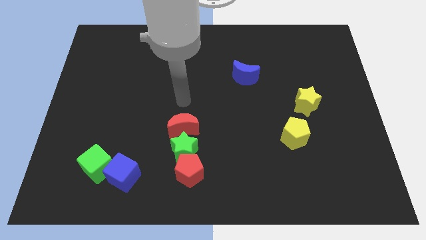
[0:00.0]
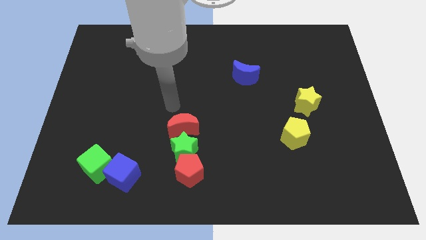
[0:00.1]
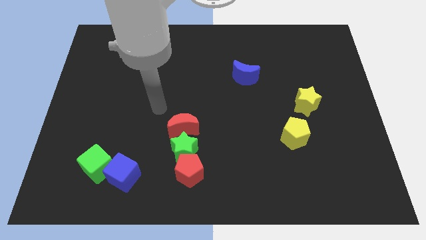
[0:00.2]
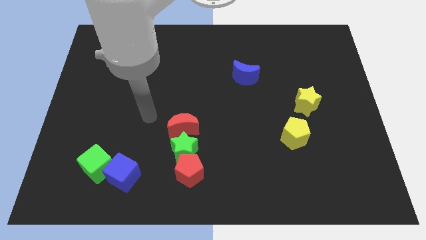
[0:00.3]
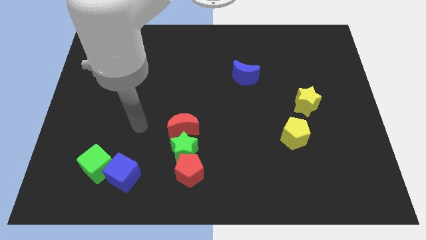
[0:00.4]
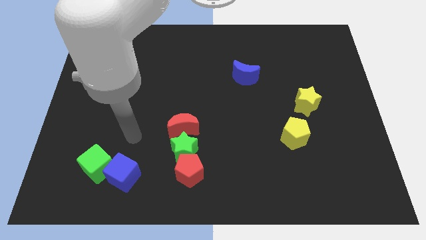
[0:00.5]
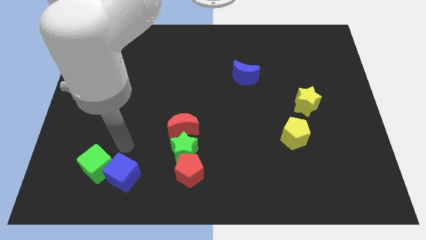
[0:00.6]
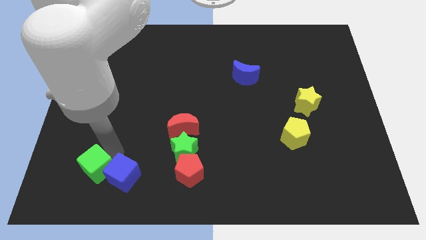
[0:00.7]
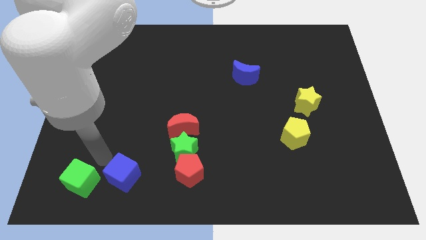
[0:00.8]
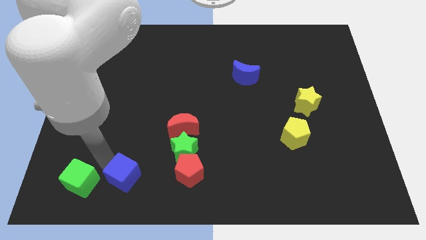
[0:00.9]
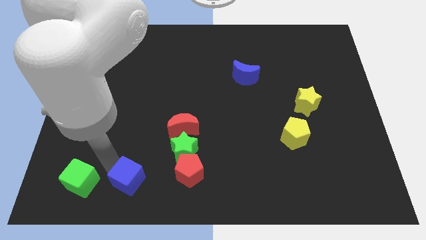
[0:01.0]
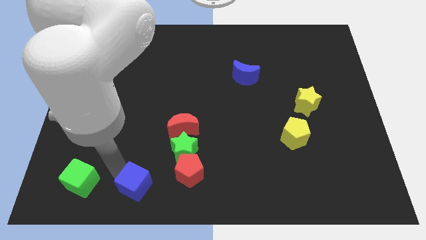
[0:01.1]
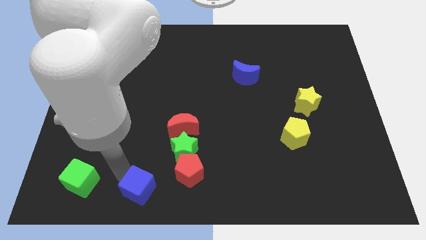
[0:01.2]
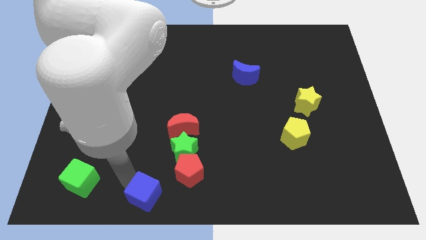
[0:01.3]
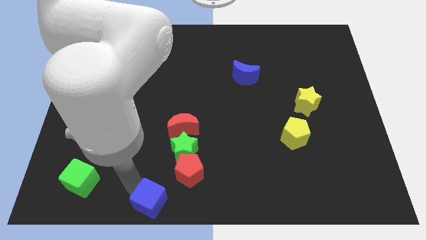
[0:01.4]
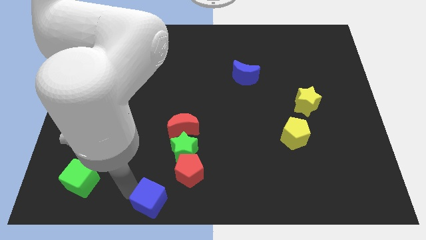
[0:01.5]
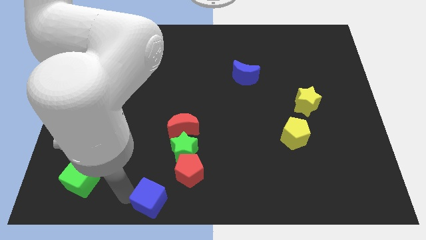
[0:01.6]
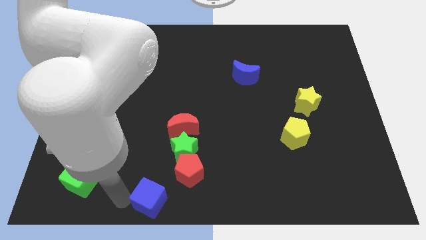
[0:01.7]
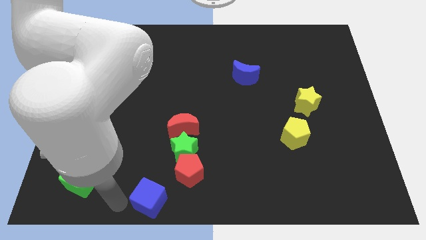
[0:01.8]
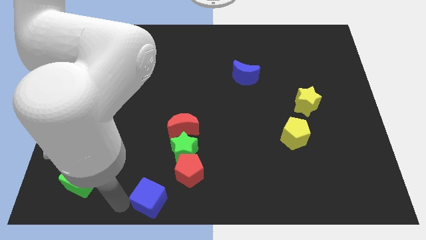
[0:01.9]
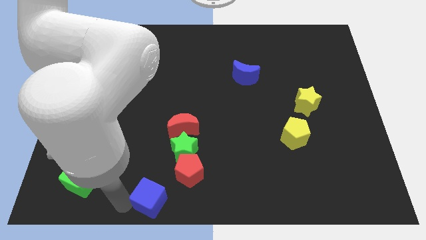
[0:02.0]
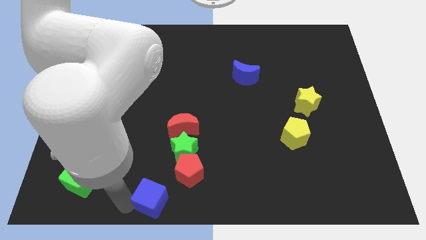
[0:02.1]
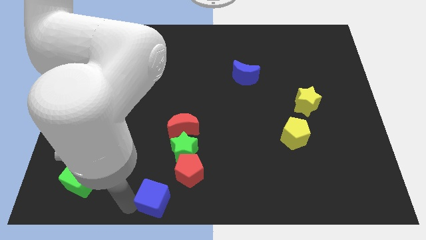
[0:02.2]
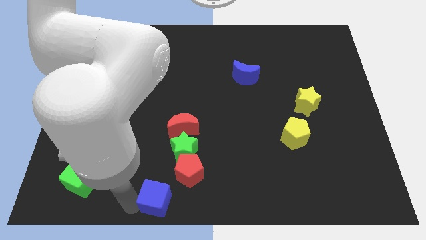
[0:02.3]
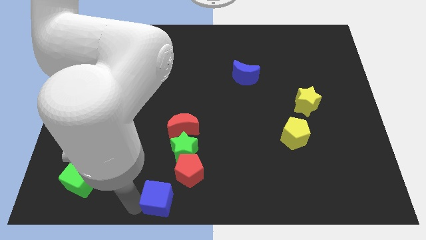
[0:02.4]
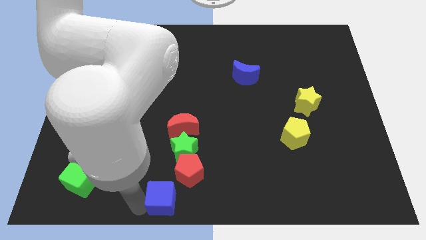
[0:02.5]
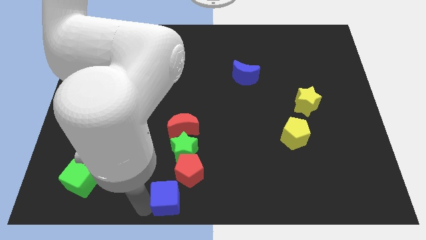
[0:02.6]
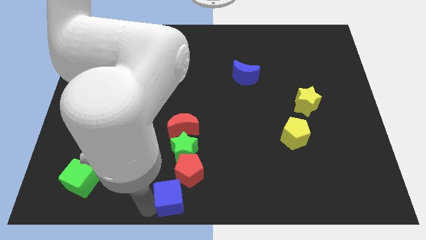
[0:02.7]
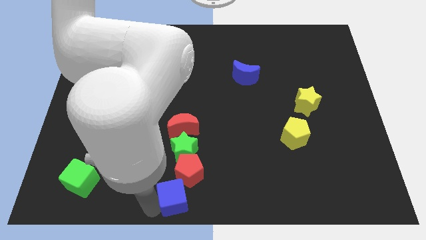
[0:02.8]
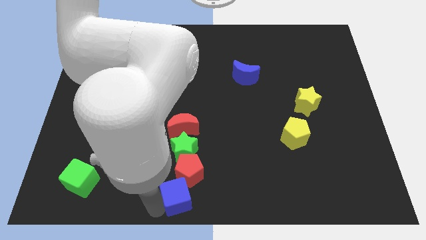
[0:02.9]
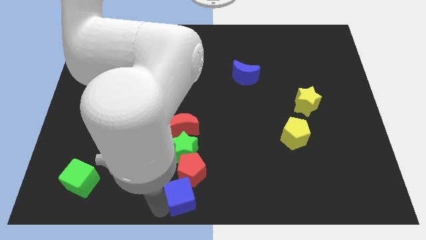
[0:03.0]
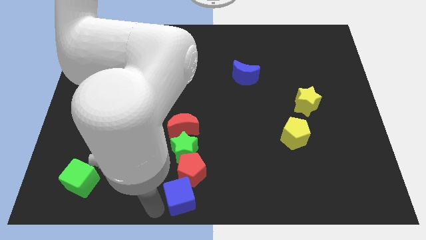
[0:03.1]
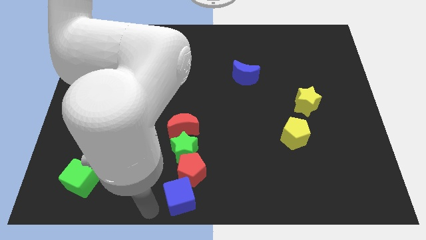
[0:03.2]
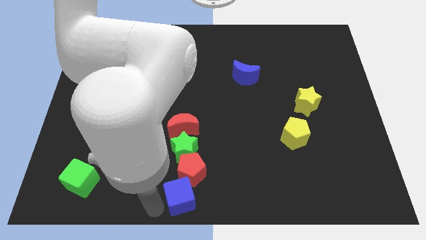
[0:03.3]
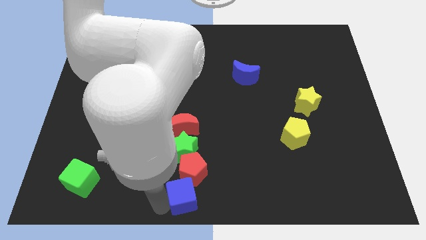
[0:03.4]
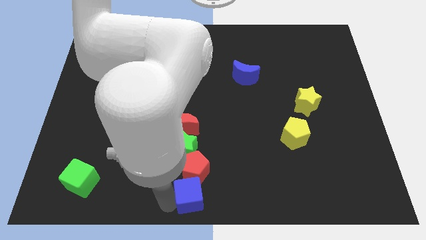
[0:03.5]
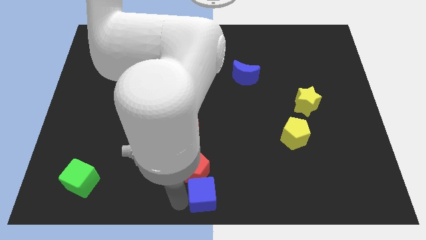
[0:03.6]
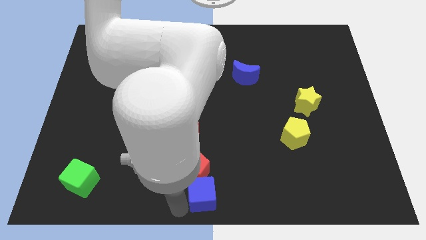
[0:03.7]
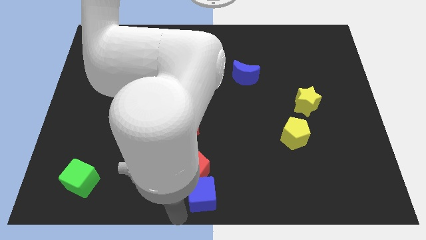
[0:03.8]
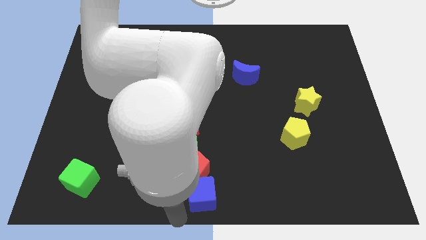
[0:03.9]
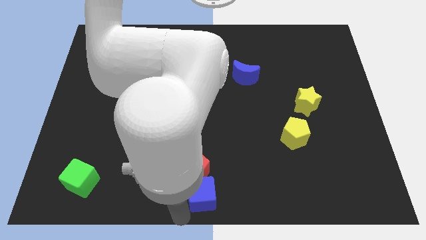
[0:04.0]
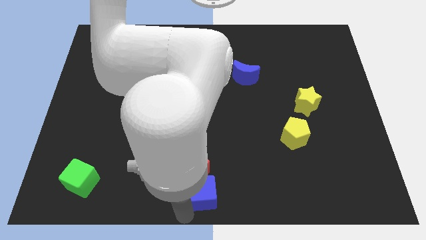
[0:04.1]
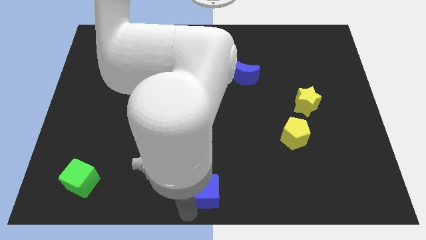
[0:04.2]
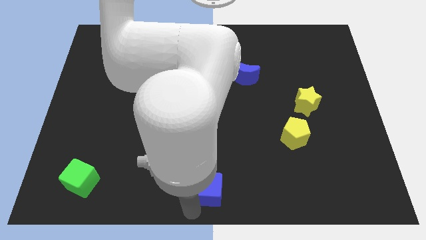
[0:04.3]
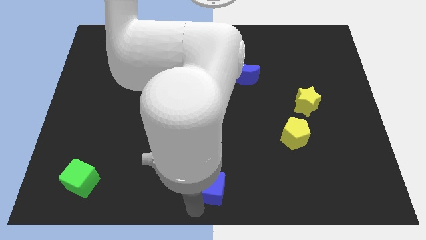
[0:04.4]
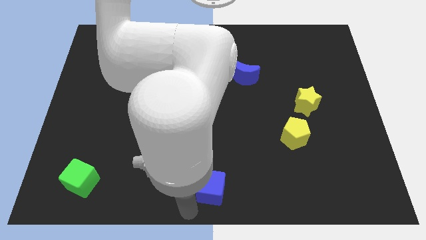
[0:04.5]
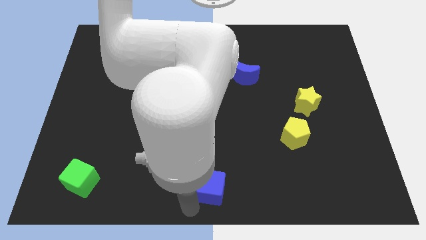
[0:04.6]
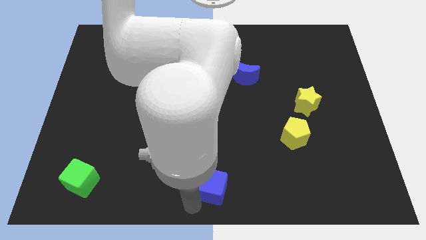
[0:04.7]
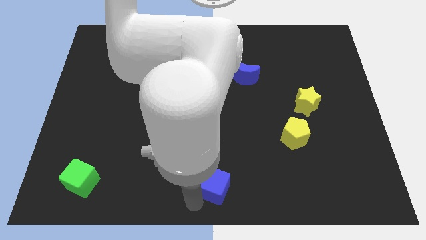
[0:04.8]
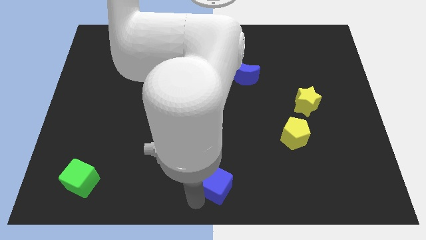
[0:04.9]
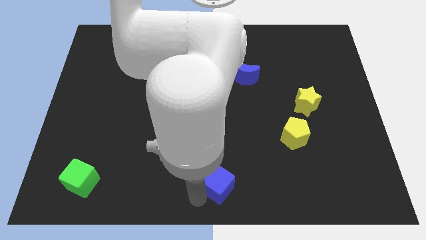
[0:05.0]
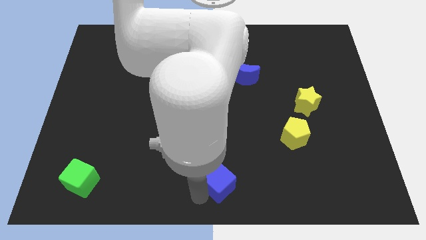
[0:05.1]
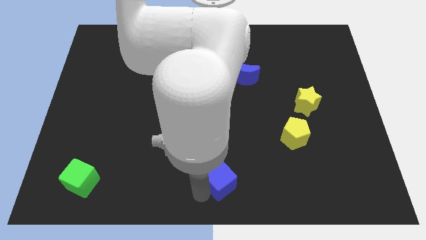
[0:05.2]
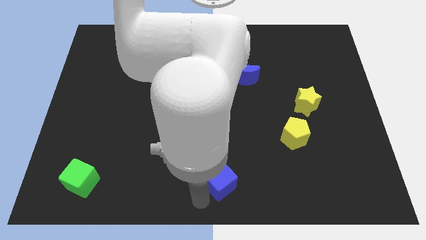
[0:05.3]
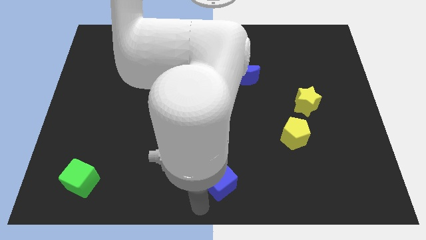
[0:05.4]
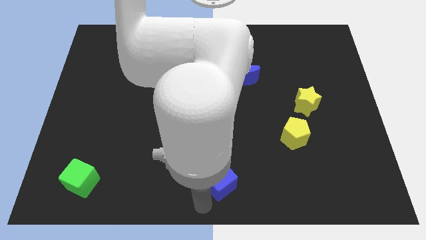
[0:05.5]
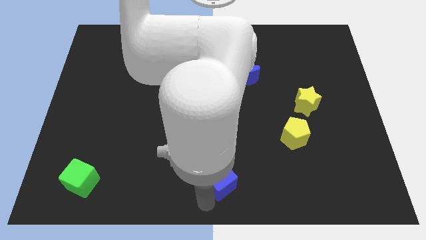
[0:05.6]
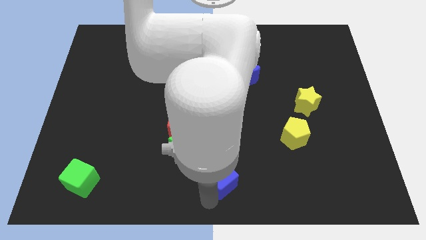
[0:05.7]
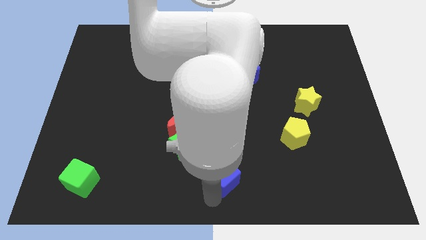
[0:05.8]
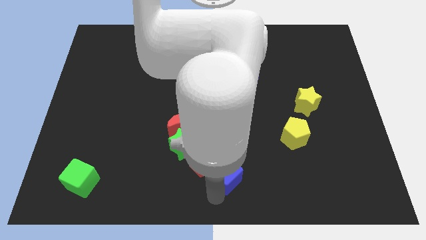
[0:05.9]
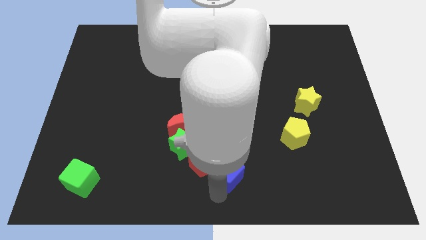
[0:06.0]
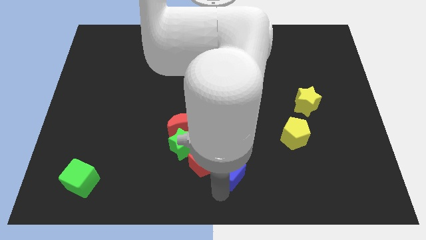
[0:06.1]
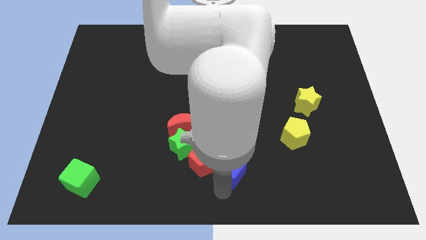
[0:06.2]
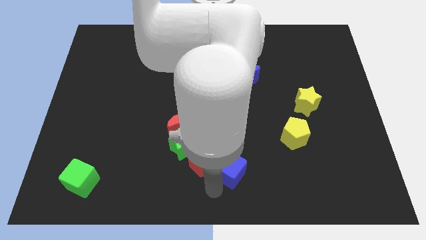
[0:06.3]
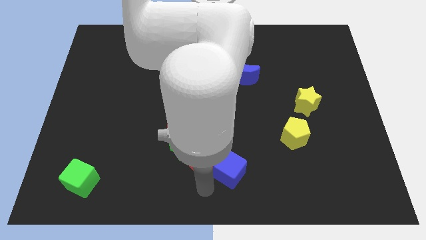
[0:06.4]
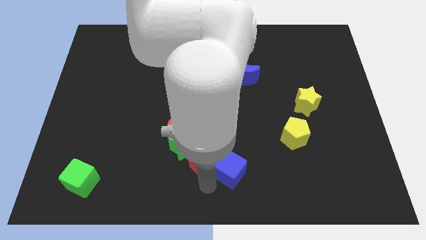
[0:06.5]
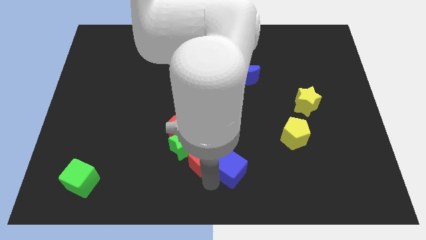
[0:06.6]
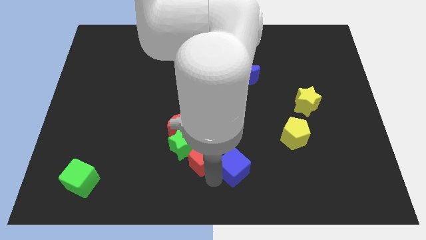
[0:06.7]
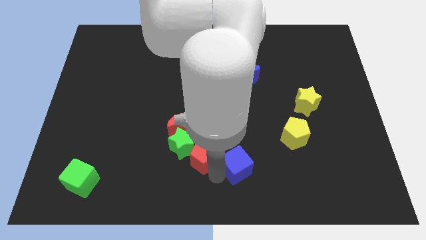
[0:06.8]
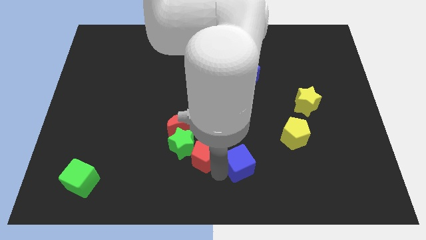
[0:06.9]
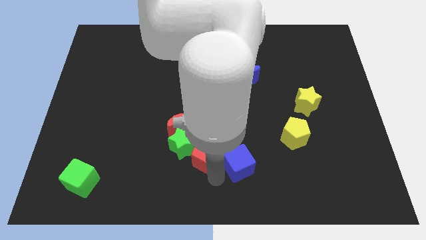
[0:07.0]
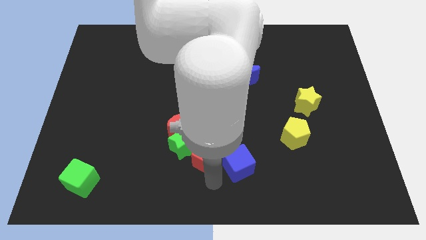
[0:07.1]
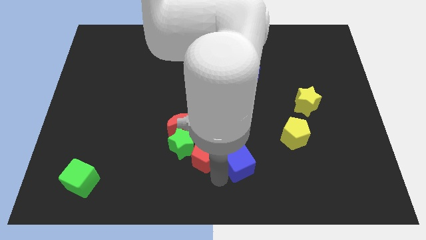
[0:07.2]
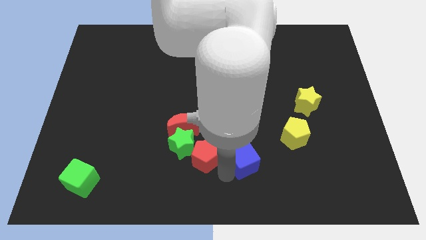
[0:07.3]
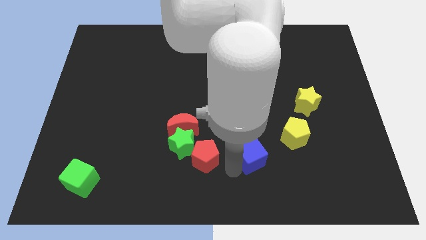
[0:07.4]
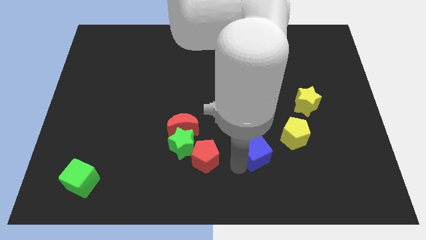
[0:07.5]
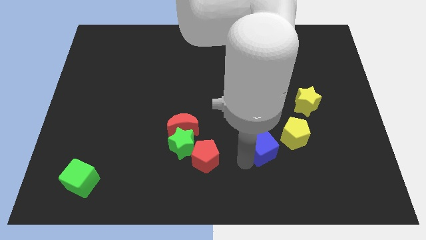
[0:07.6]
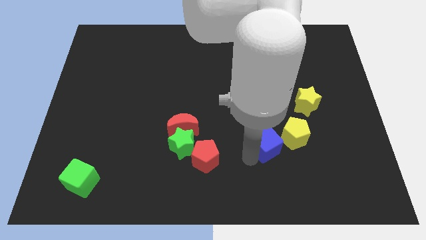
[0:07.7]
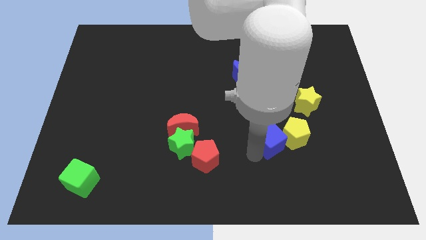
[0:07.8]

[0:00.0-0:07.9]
put the blue cube towards the yellow pentagon
